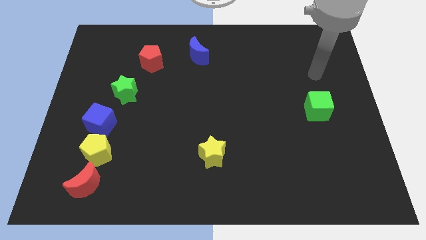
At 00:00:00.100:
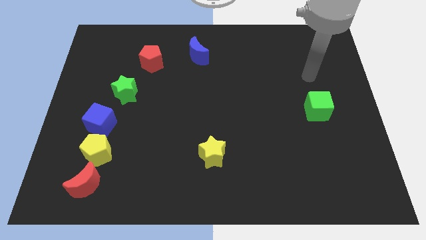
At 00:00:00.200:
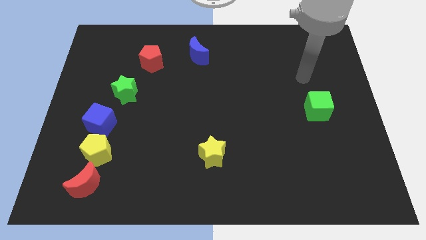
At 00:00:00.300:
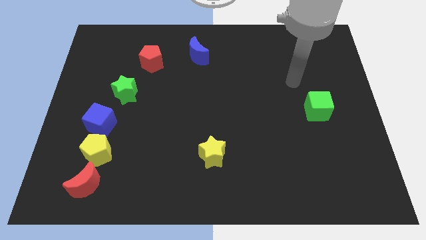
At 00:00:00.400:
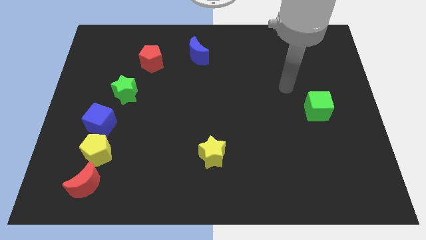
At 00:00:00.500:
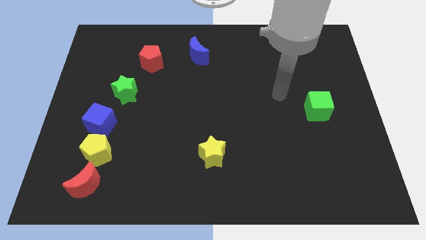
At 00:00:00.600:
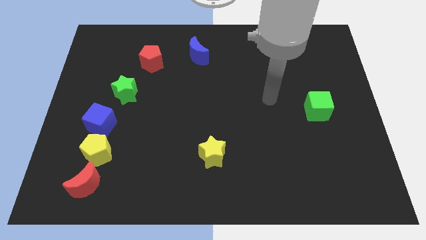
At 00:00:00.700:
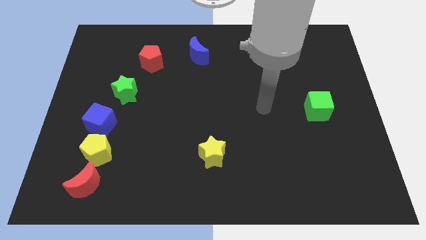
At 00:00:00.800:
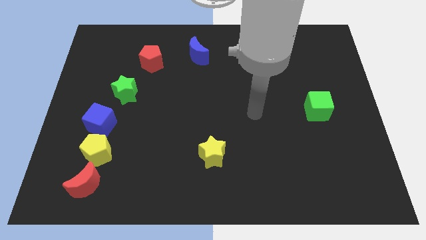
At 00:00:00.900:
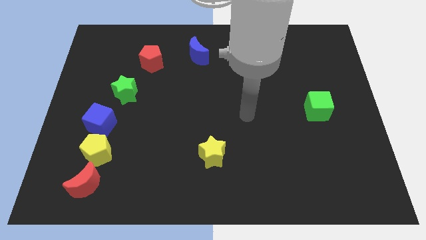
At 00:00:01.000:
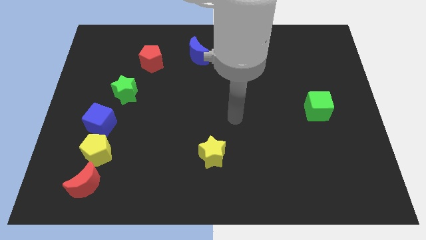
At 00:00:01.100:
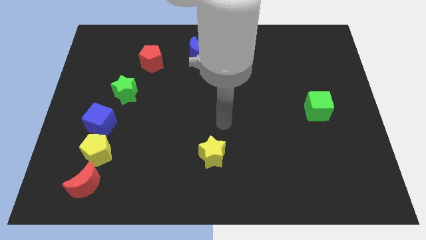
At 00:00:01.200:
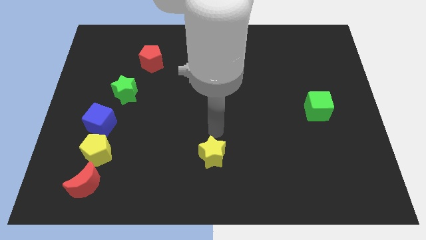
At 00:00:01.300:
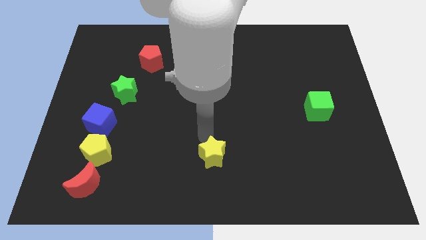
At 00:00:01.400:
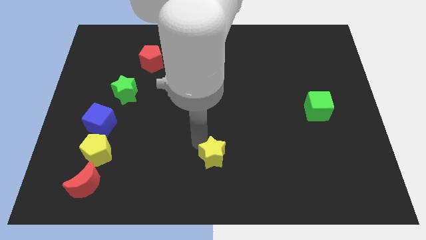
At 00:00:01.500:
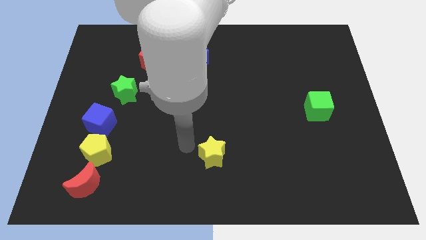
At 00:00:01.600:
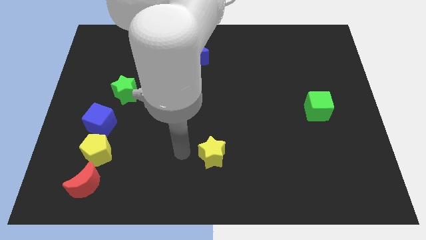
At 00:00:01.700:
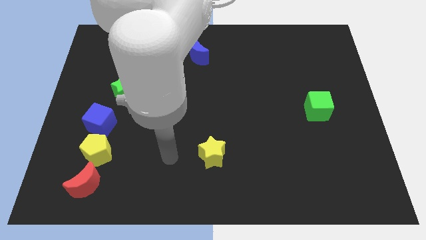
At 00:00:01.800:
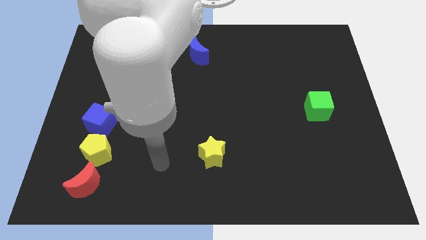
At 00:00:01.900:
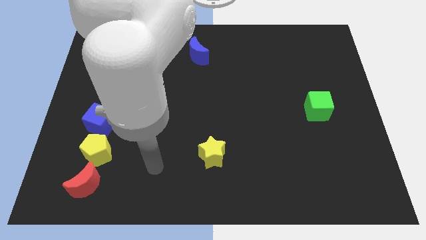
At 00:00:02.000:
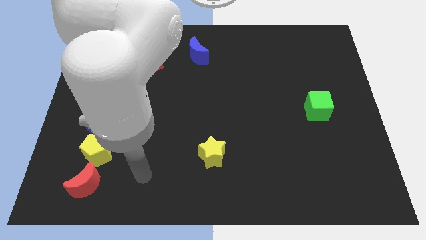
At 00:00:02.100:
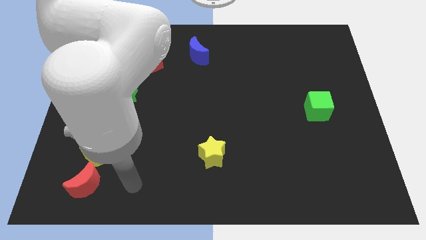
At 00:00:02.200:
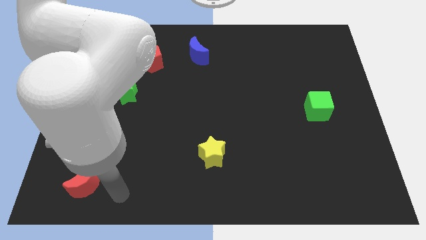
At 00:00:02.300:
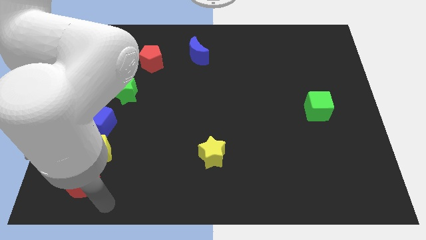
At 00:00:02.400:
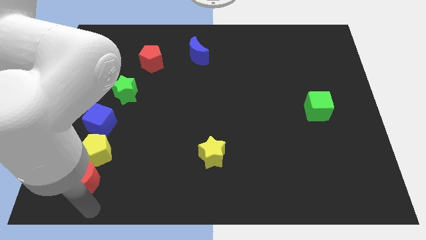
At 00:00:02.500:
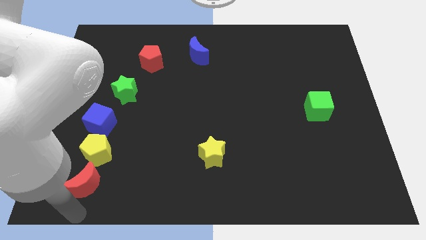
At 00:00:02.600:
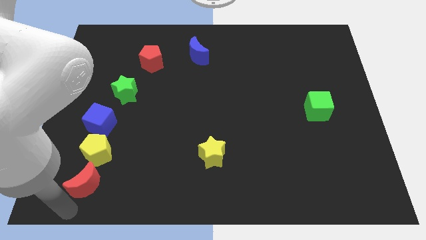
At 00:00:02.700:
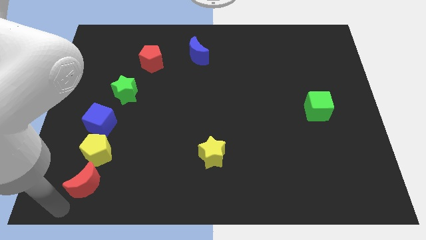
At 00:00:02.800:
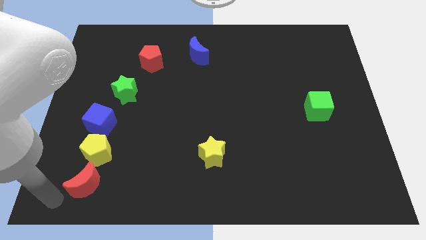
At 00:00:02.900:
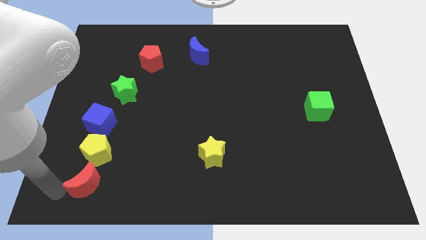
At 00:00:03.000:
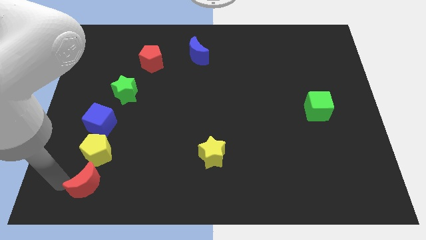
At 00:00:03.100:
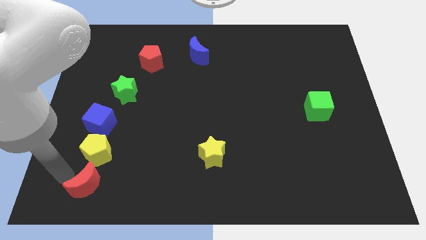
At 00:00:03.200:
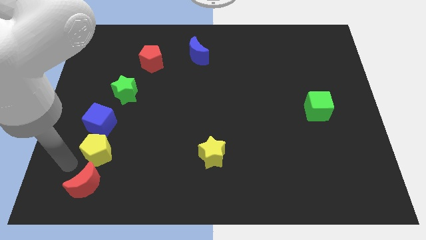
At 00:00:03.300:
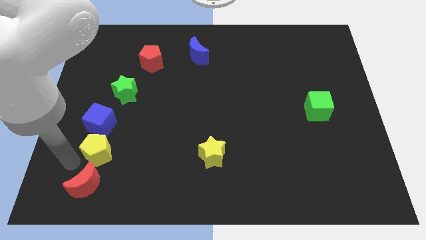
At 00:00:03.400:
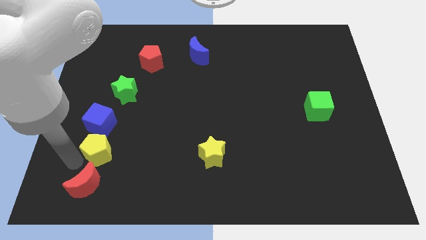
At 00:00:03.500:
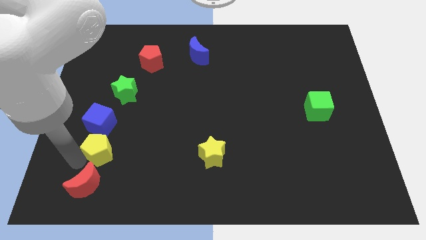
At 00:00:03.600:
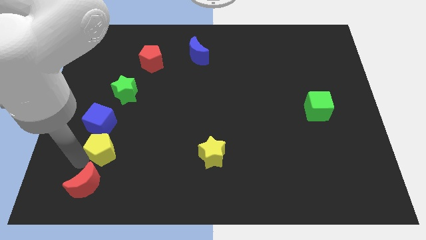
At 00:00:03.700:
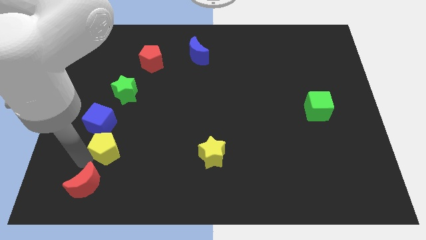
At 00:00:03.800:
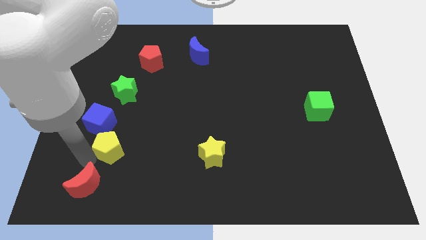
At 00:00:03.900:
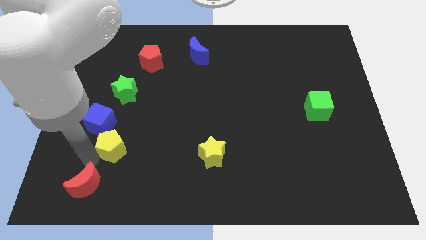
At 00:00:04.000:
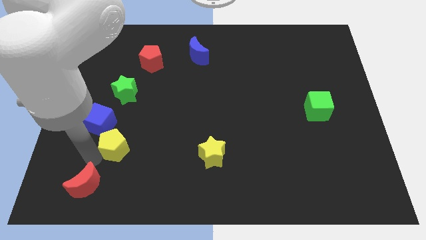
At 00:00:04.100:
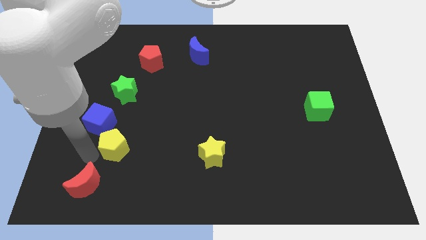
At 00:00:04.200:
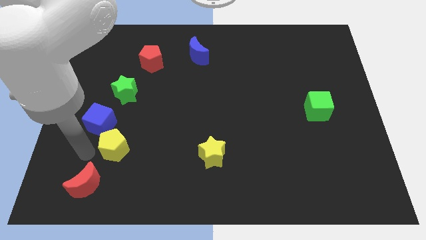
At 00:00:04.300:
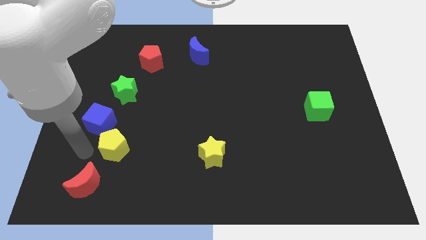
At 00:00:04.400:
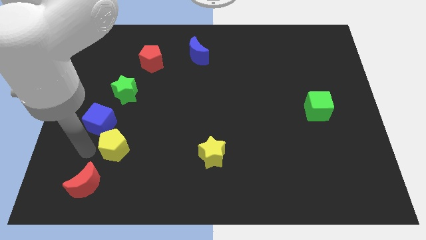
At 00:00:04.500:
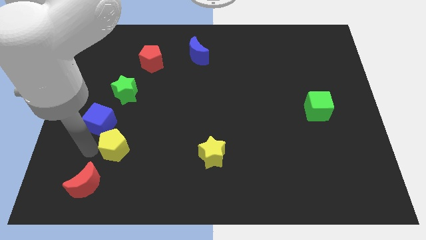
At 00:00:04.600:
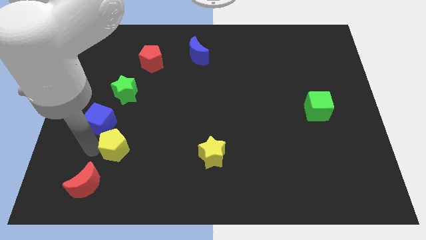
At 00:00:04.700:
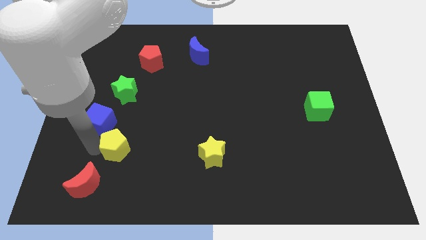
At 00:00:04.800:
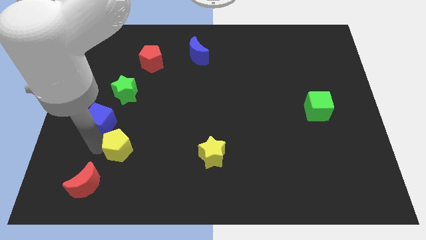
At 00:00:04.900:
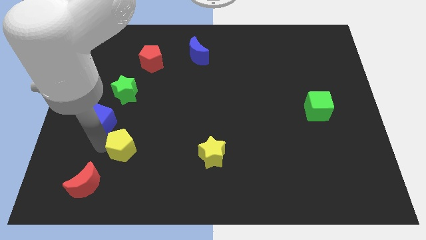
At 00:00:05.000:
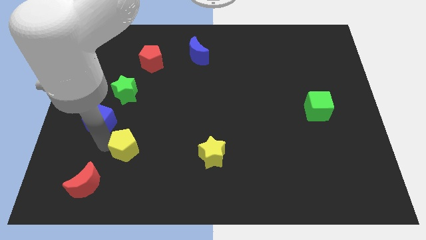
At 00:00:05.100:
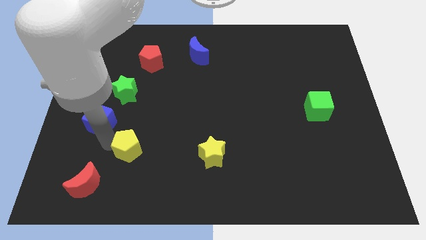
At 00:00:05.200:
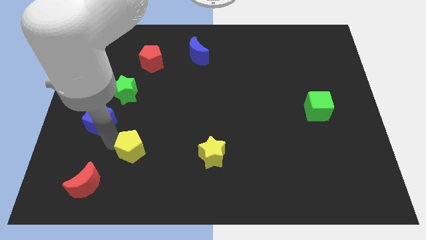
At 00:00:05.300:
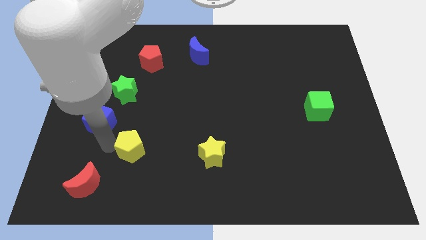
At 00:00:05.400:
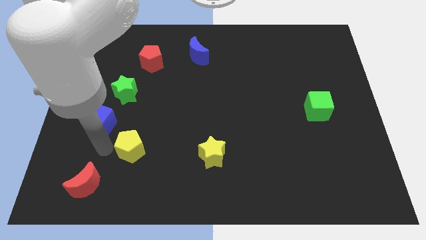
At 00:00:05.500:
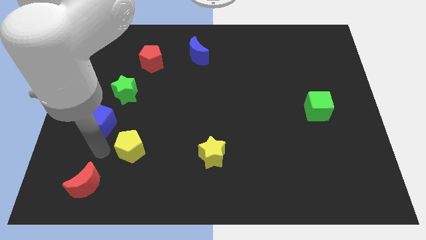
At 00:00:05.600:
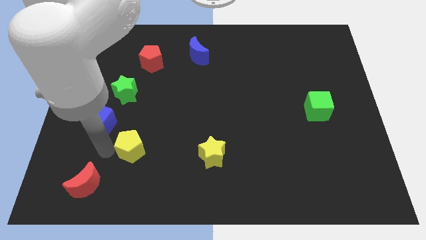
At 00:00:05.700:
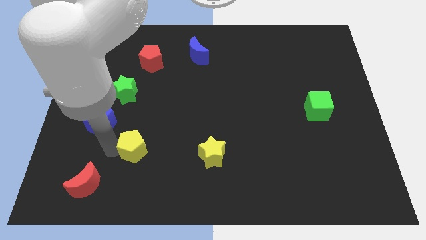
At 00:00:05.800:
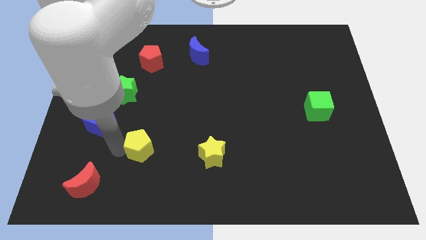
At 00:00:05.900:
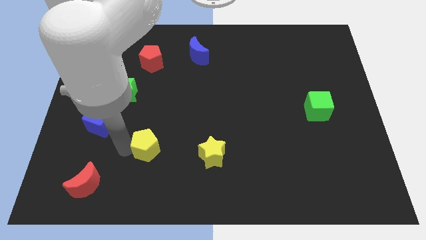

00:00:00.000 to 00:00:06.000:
pull the yellow pentagon apart from the blue cube and red moon

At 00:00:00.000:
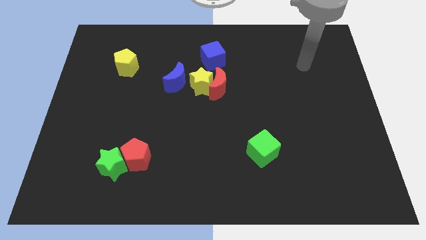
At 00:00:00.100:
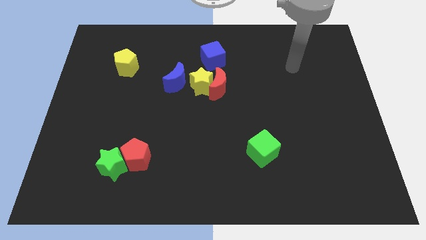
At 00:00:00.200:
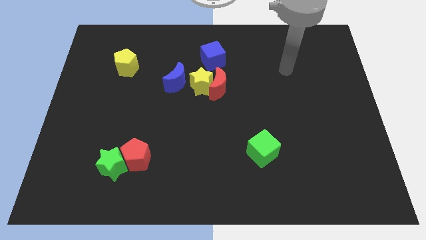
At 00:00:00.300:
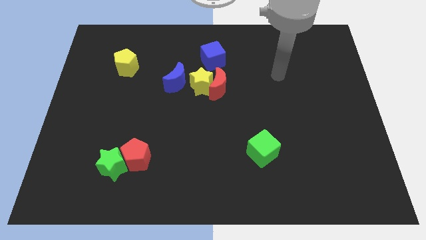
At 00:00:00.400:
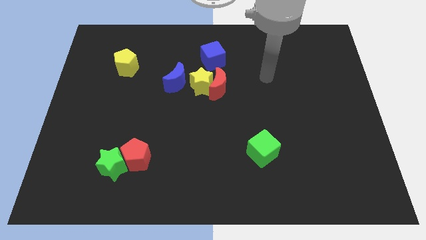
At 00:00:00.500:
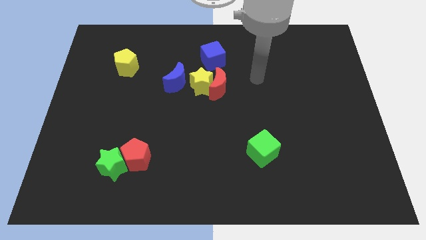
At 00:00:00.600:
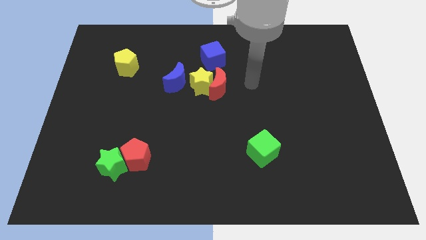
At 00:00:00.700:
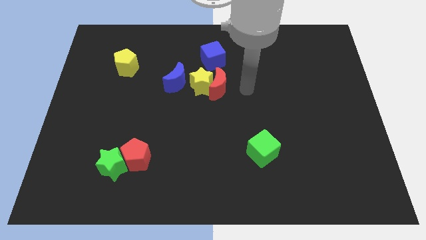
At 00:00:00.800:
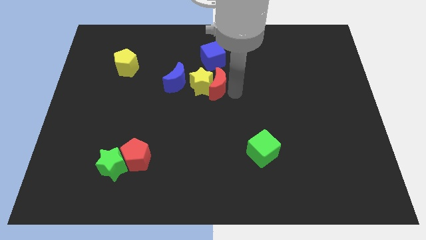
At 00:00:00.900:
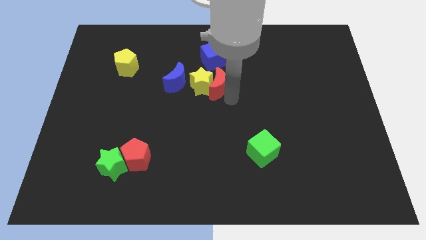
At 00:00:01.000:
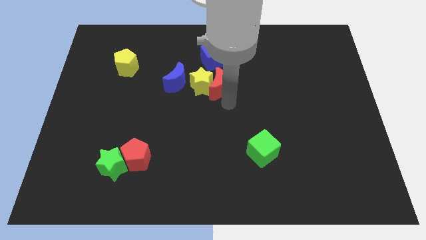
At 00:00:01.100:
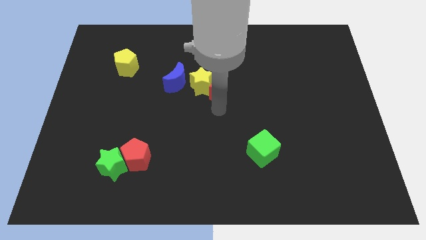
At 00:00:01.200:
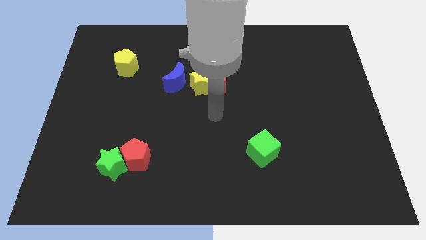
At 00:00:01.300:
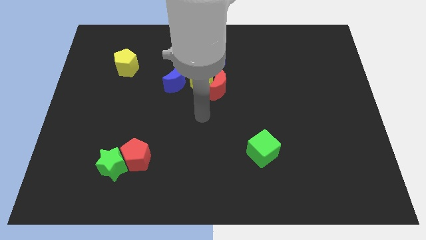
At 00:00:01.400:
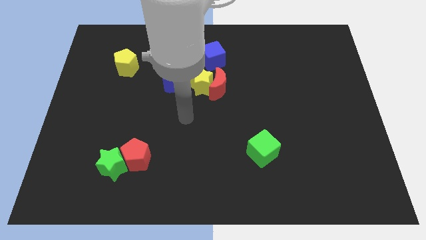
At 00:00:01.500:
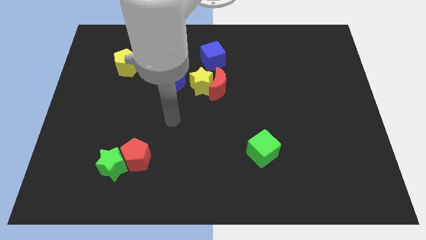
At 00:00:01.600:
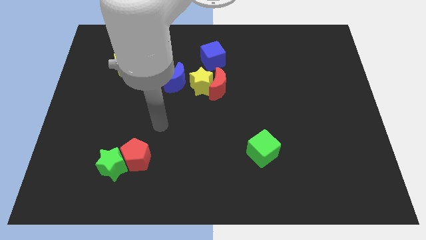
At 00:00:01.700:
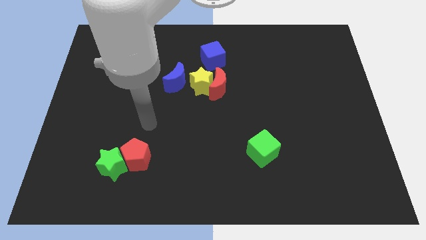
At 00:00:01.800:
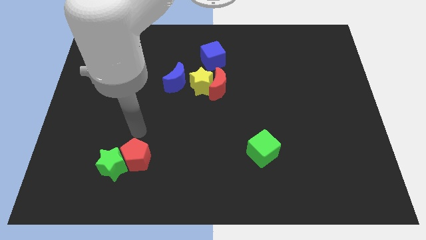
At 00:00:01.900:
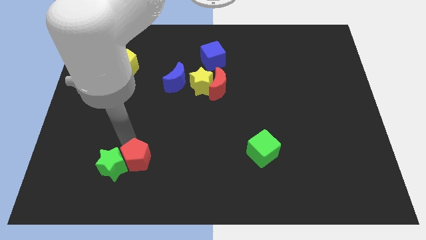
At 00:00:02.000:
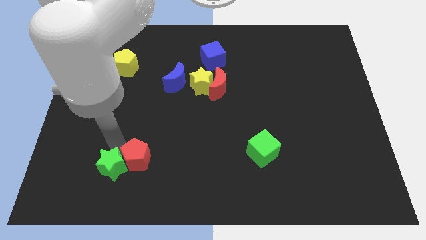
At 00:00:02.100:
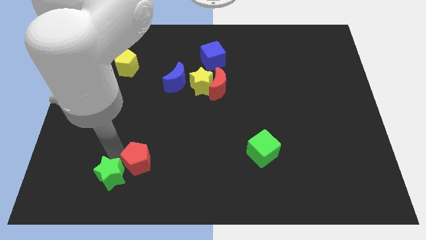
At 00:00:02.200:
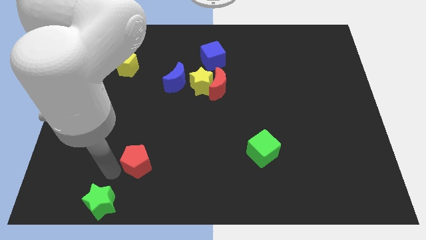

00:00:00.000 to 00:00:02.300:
separate the red pentagon from the green star

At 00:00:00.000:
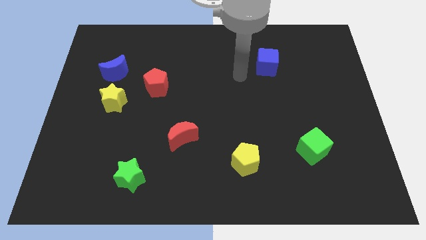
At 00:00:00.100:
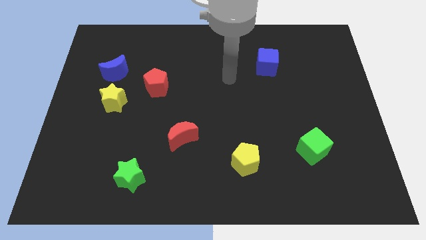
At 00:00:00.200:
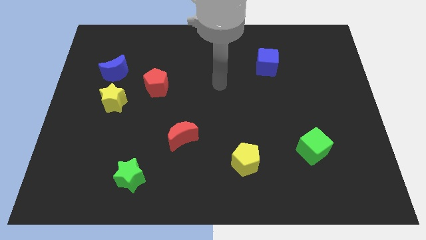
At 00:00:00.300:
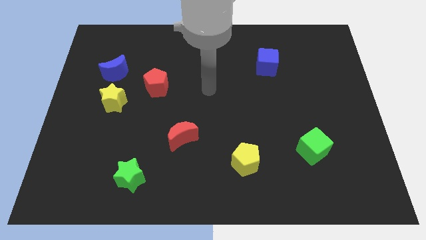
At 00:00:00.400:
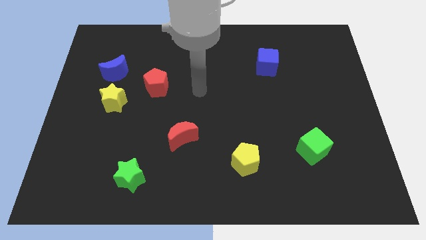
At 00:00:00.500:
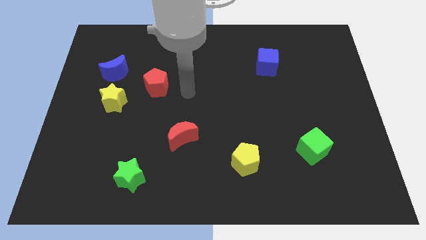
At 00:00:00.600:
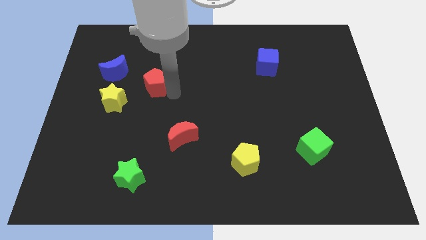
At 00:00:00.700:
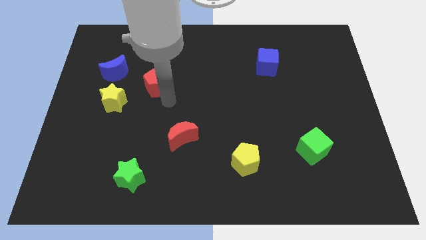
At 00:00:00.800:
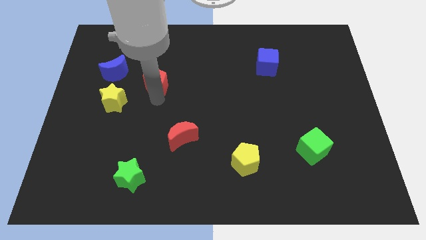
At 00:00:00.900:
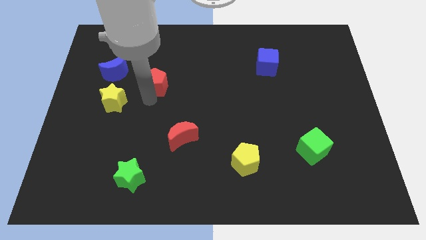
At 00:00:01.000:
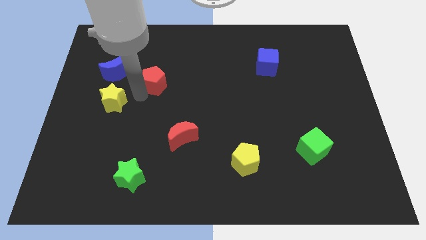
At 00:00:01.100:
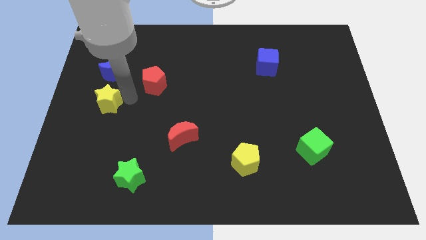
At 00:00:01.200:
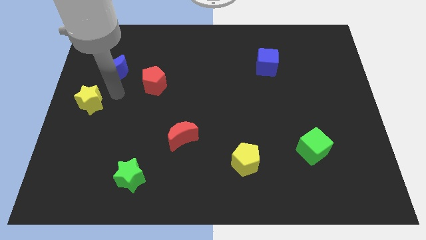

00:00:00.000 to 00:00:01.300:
move the blue moon away from the yellow star
